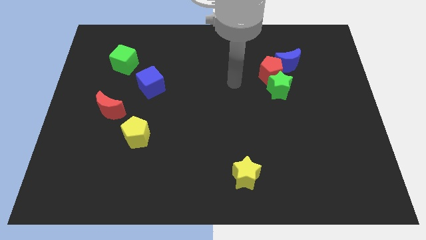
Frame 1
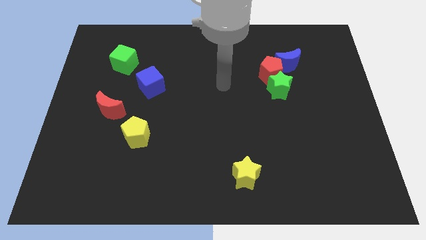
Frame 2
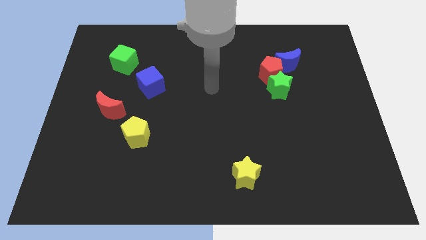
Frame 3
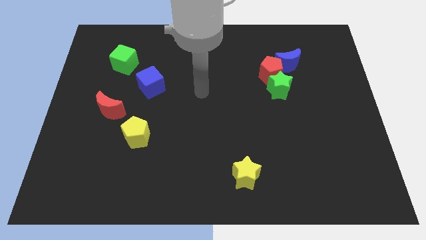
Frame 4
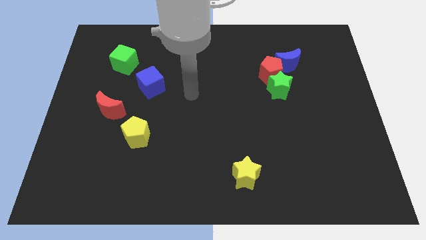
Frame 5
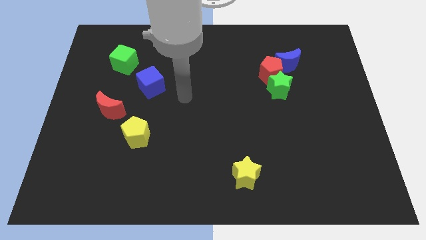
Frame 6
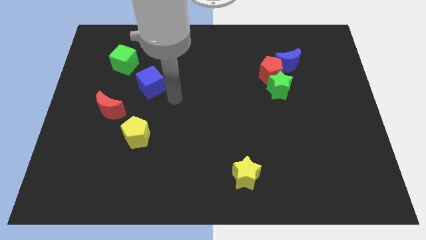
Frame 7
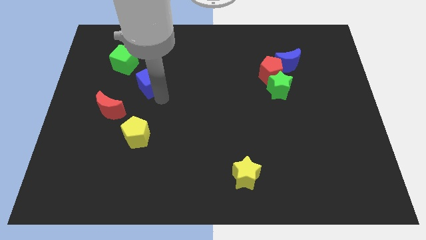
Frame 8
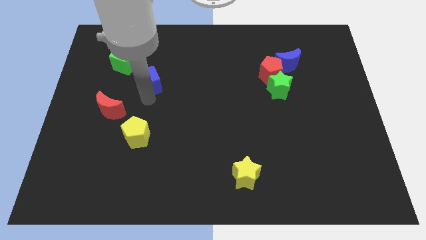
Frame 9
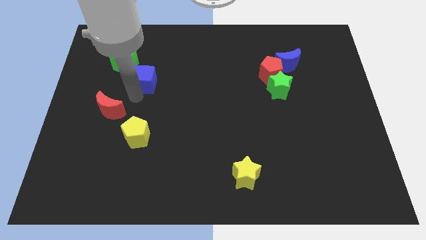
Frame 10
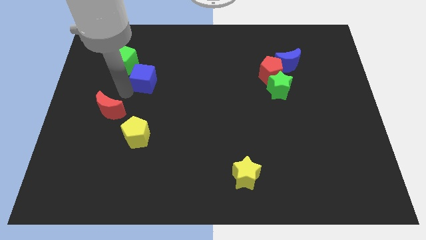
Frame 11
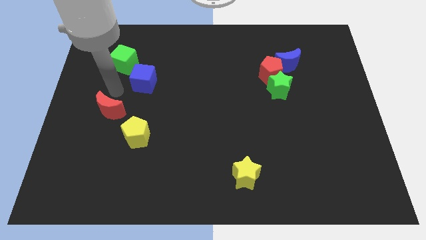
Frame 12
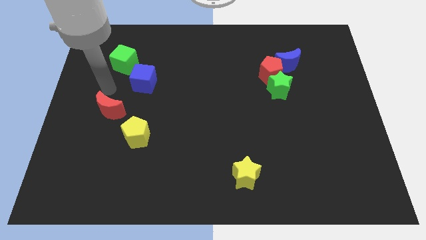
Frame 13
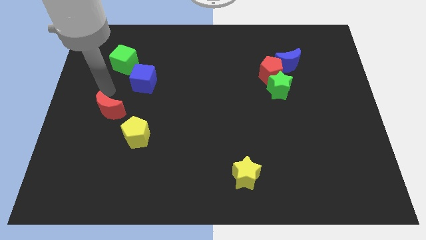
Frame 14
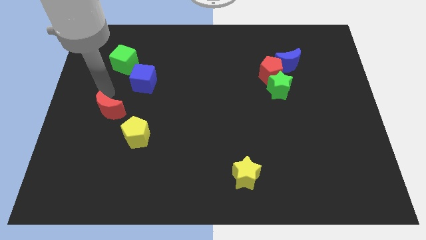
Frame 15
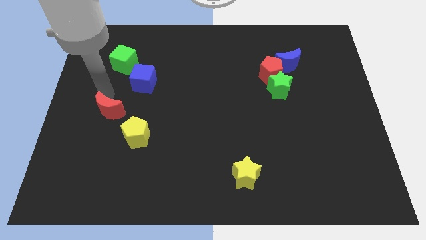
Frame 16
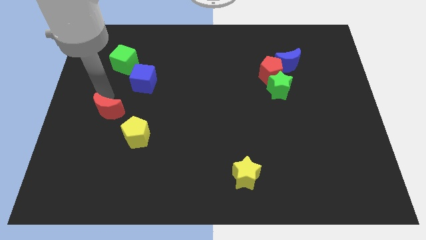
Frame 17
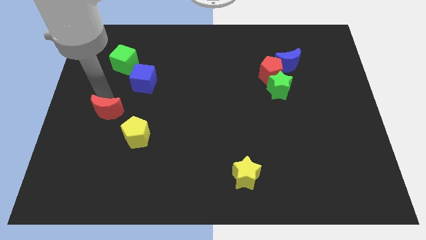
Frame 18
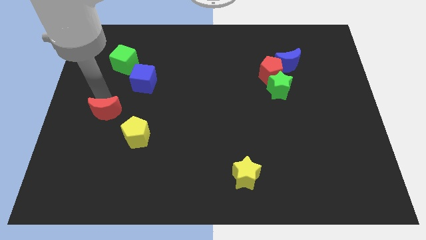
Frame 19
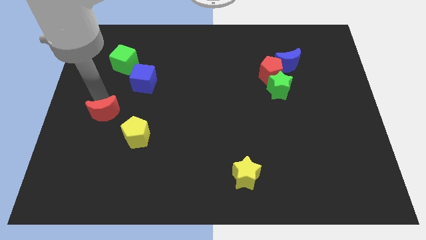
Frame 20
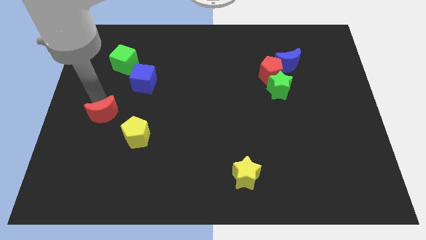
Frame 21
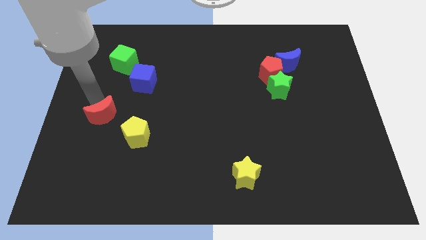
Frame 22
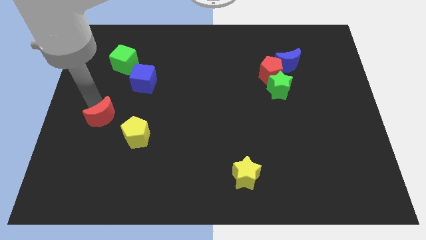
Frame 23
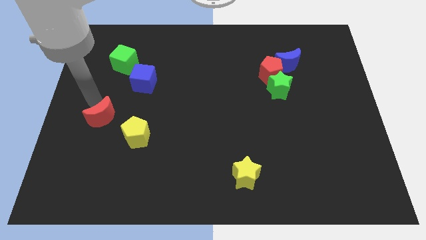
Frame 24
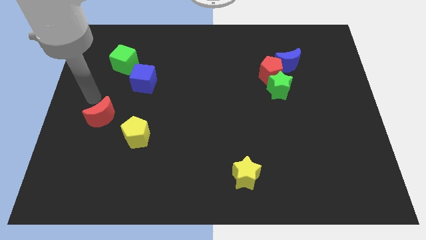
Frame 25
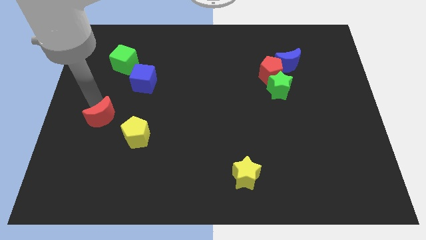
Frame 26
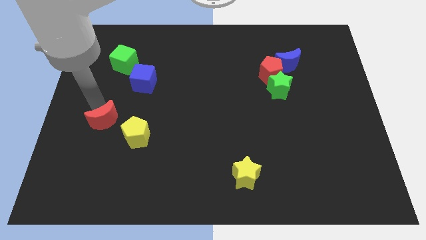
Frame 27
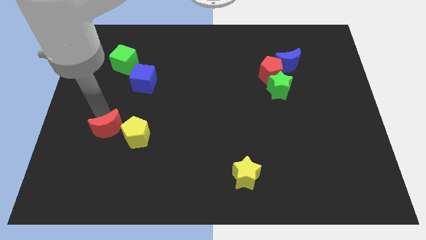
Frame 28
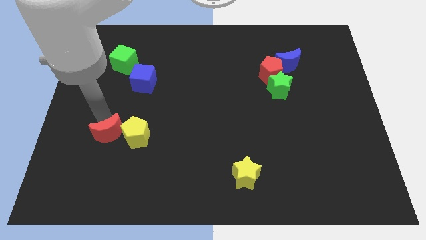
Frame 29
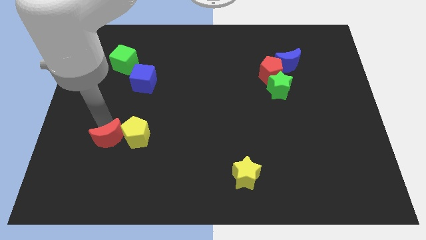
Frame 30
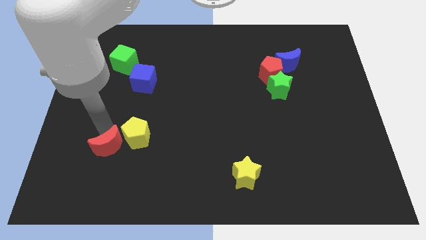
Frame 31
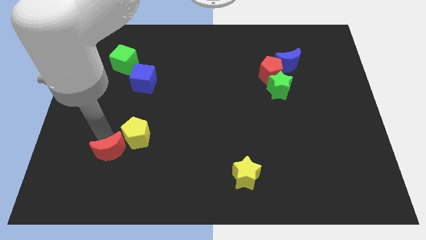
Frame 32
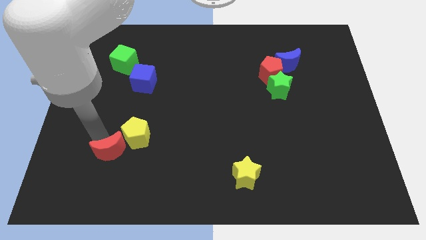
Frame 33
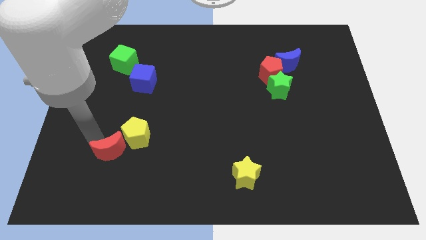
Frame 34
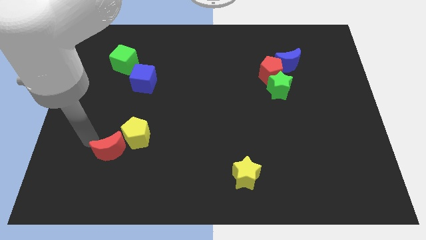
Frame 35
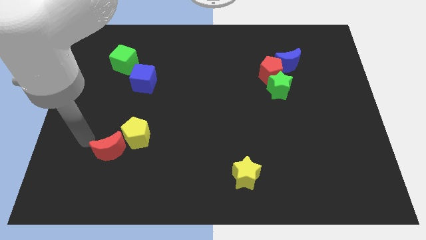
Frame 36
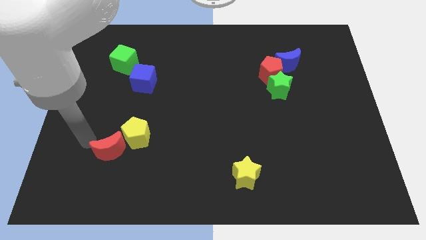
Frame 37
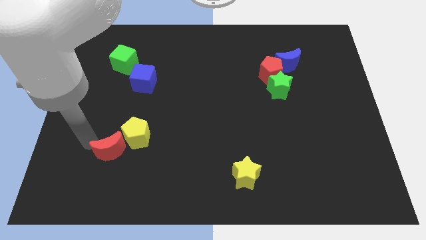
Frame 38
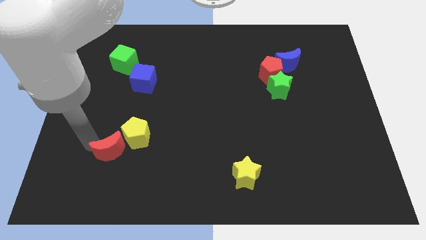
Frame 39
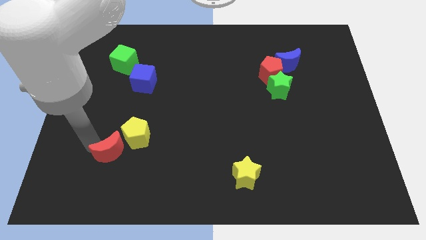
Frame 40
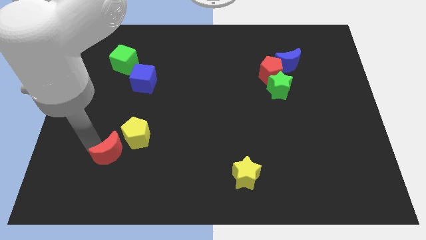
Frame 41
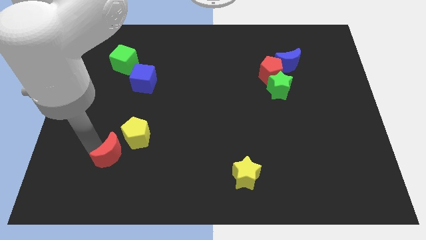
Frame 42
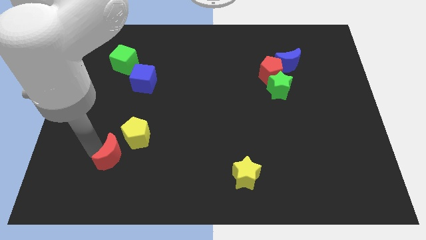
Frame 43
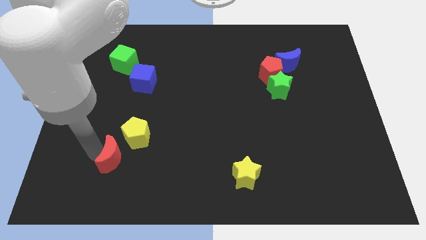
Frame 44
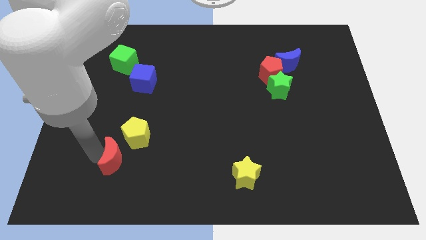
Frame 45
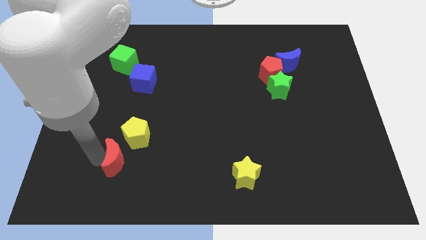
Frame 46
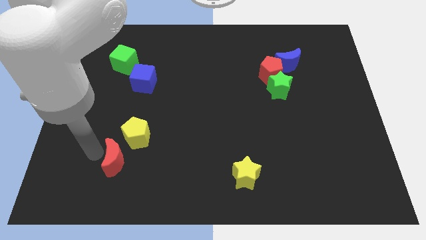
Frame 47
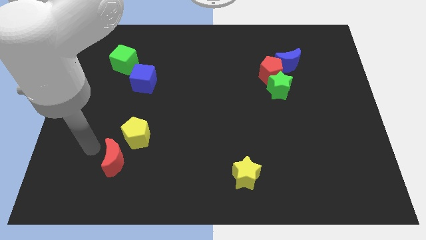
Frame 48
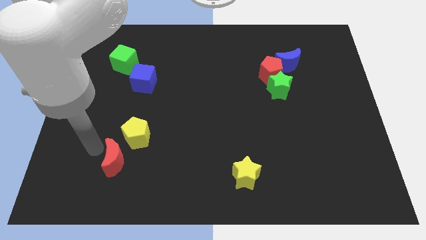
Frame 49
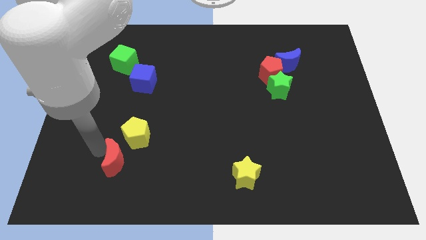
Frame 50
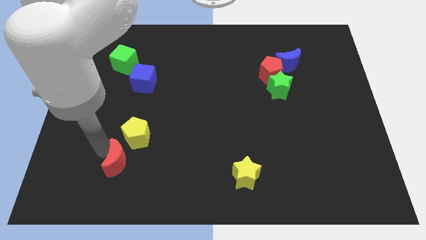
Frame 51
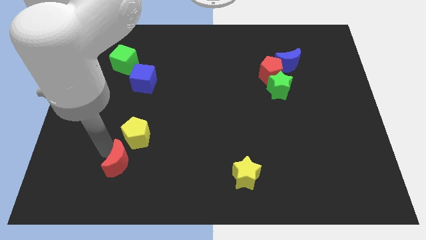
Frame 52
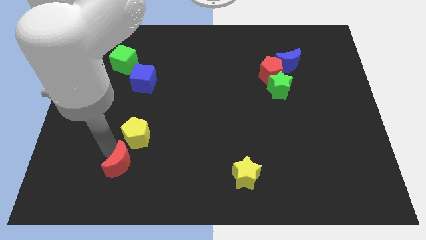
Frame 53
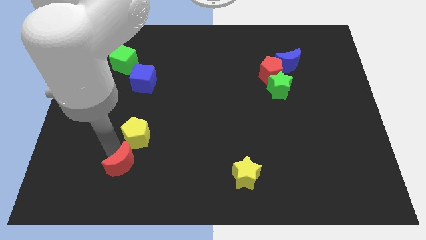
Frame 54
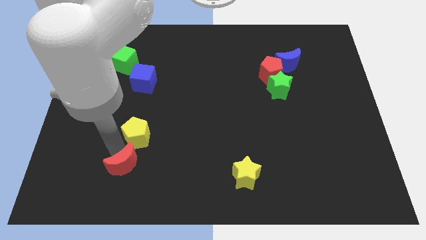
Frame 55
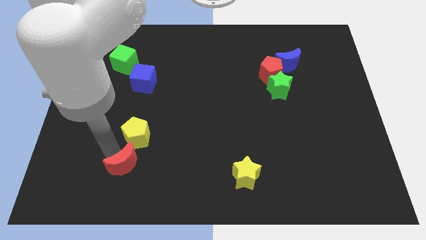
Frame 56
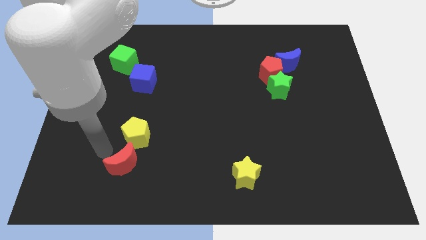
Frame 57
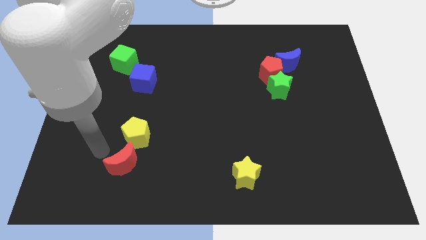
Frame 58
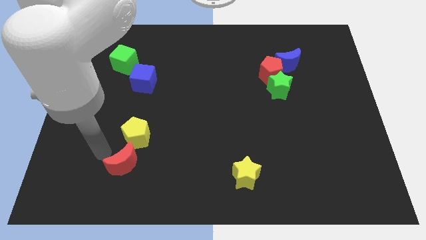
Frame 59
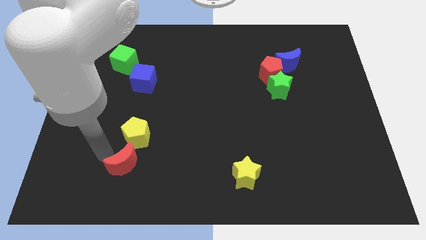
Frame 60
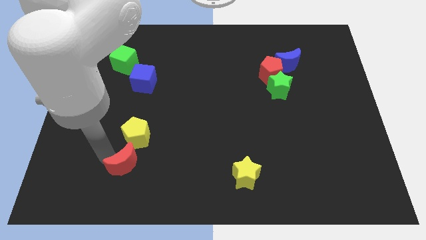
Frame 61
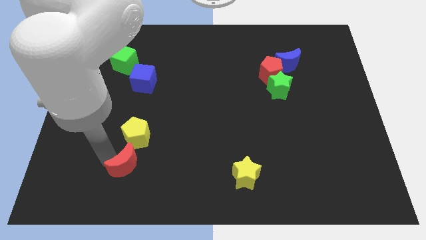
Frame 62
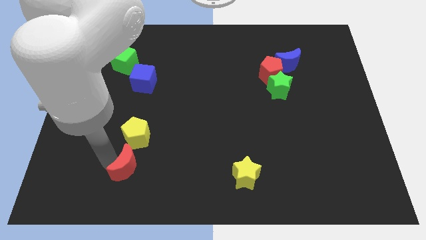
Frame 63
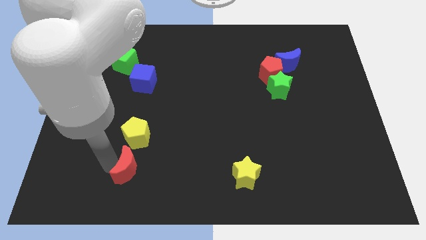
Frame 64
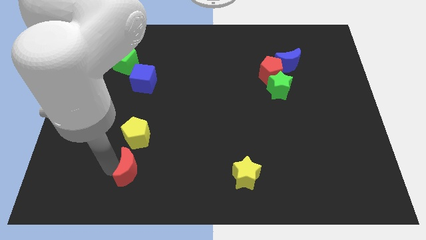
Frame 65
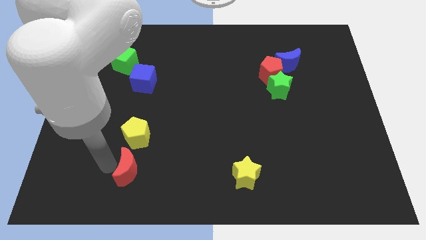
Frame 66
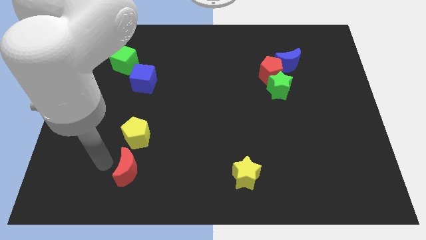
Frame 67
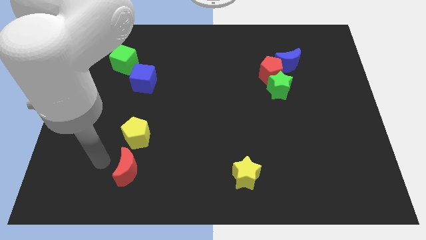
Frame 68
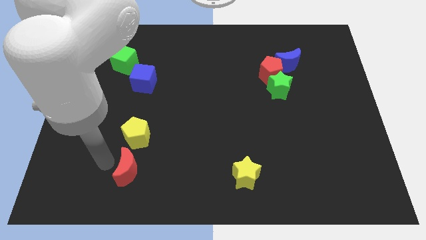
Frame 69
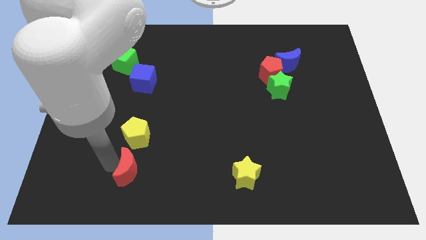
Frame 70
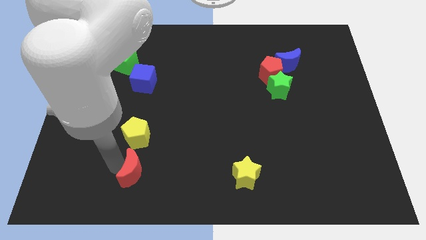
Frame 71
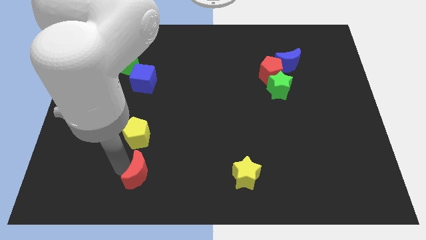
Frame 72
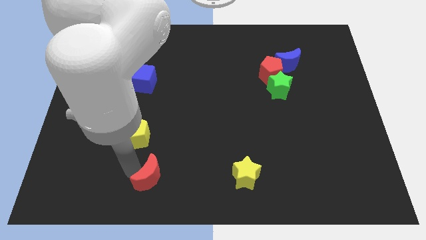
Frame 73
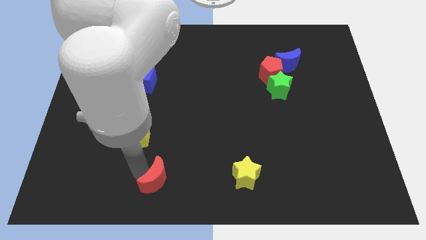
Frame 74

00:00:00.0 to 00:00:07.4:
move the red moon to the bottom side
